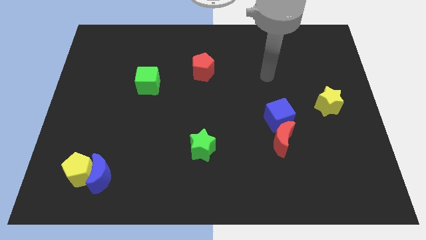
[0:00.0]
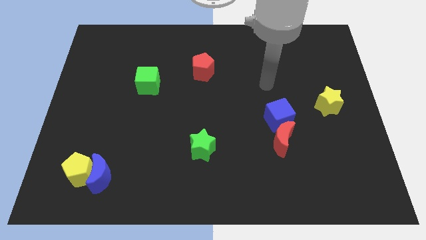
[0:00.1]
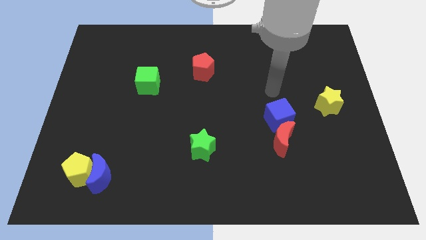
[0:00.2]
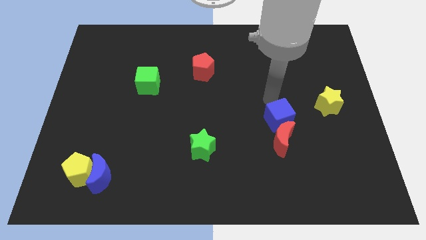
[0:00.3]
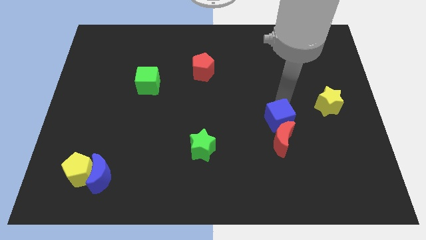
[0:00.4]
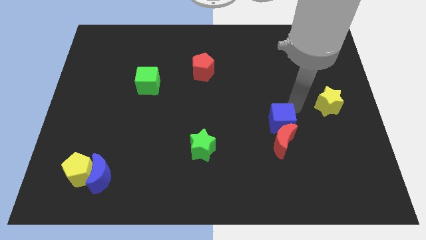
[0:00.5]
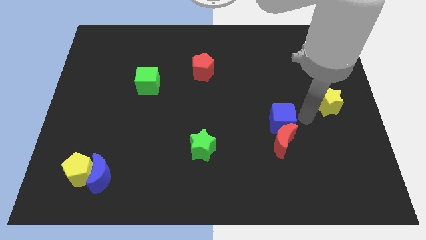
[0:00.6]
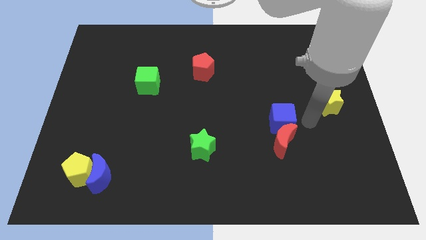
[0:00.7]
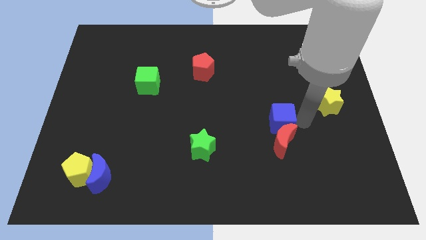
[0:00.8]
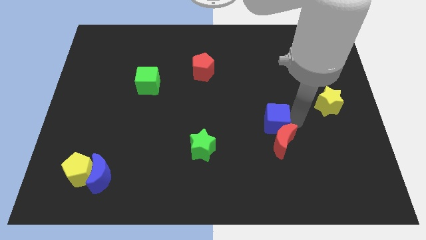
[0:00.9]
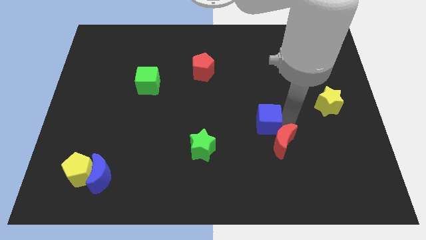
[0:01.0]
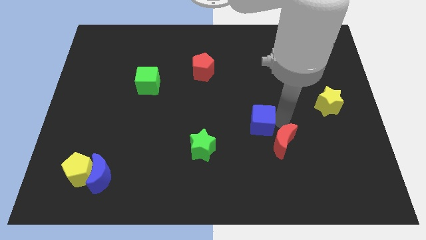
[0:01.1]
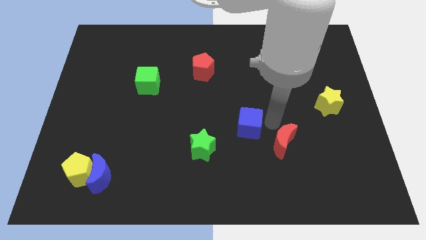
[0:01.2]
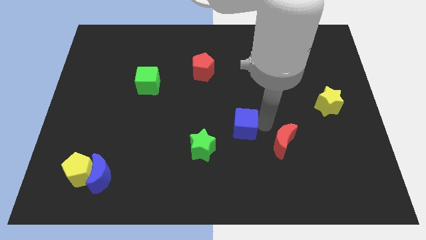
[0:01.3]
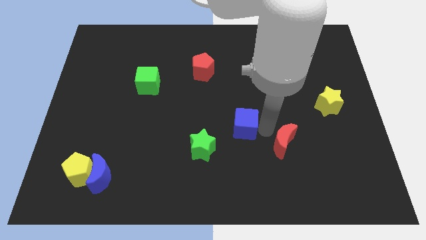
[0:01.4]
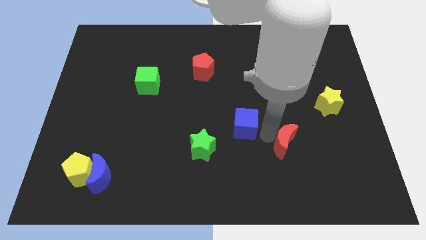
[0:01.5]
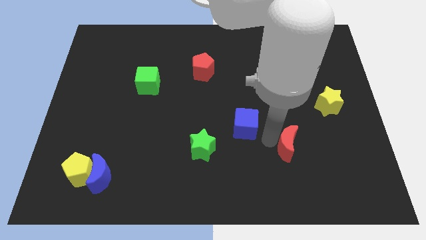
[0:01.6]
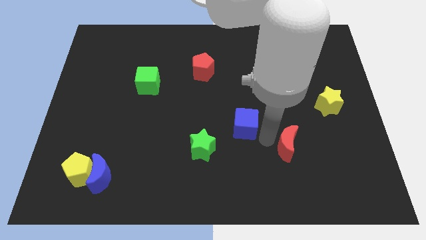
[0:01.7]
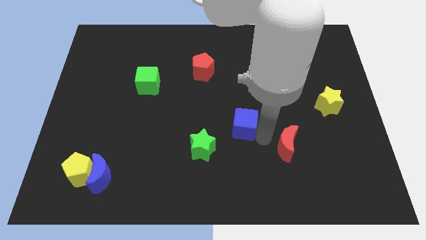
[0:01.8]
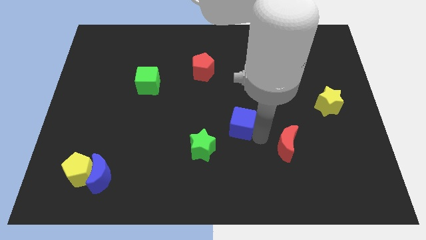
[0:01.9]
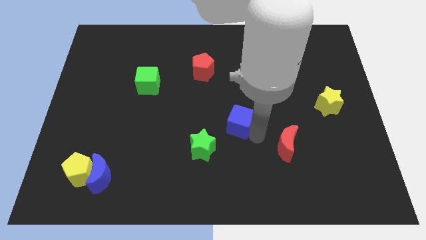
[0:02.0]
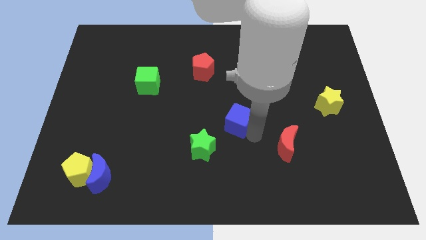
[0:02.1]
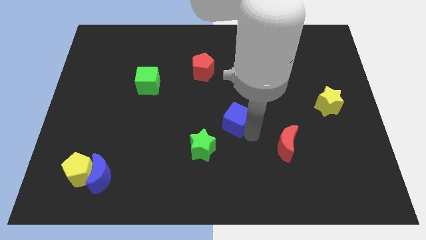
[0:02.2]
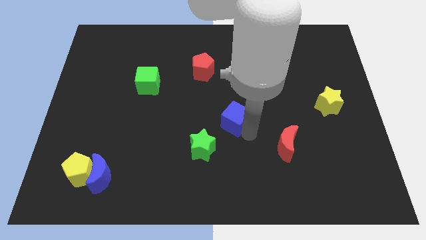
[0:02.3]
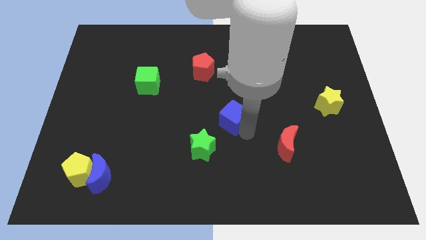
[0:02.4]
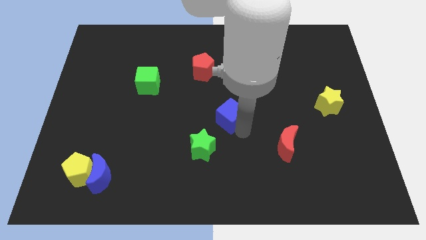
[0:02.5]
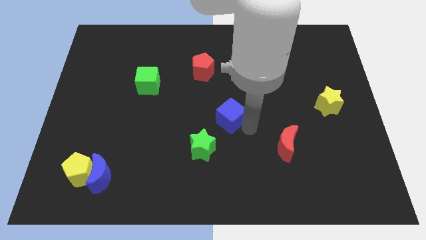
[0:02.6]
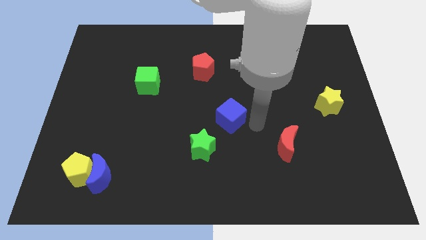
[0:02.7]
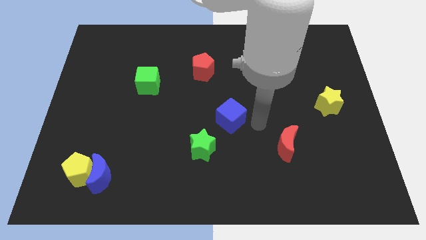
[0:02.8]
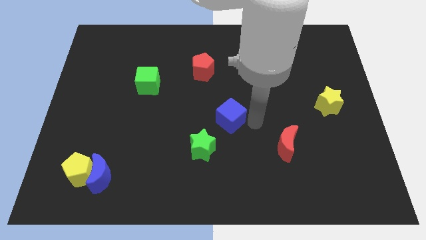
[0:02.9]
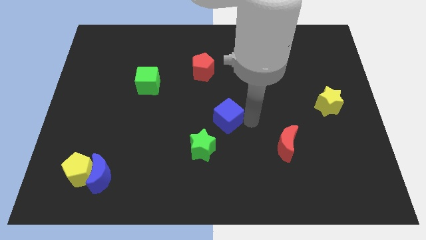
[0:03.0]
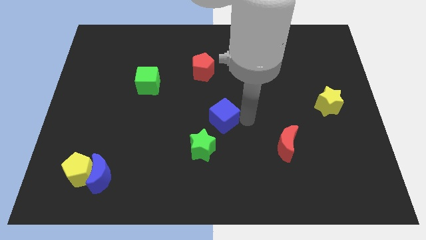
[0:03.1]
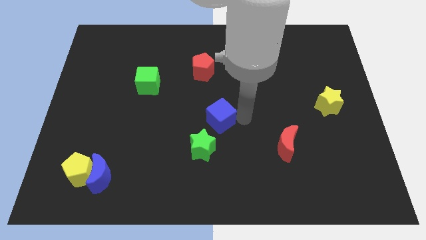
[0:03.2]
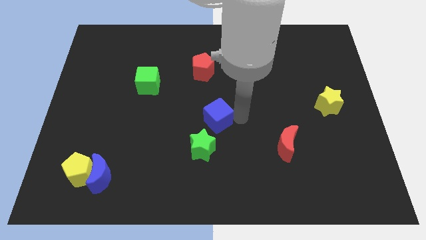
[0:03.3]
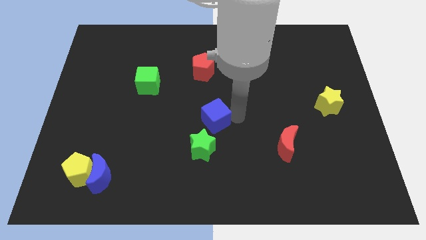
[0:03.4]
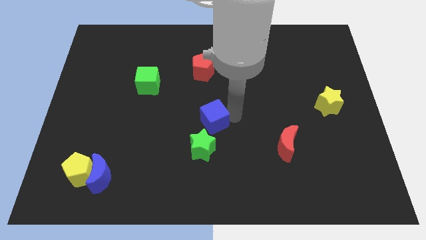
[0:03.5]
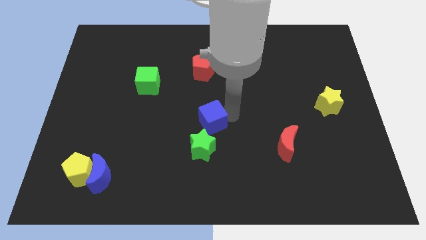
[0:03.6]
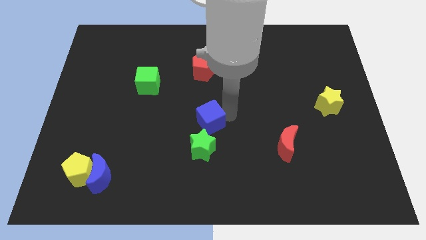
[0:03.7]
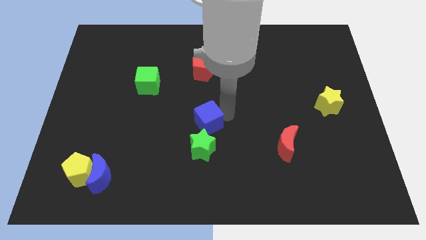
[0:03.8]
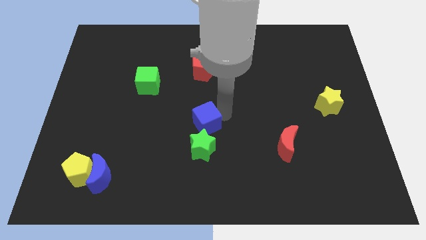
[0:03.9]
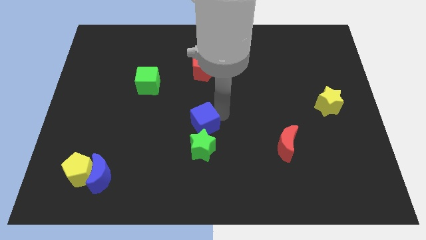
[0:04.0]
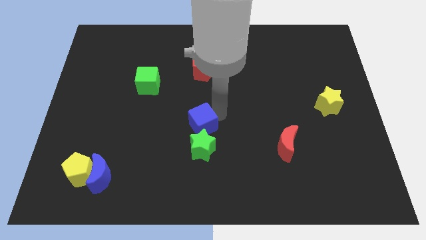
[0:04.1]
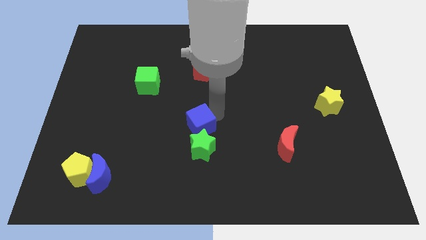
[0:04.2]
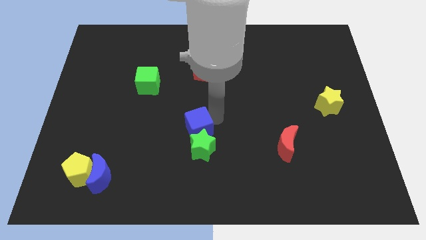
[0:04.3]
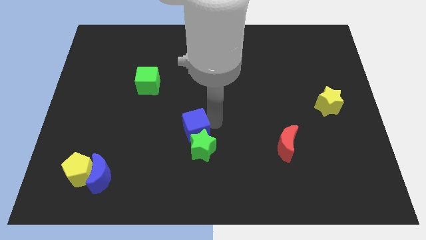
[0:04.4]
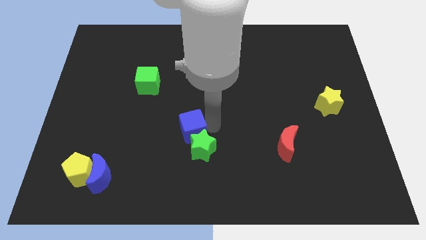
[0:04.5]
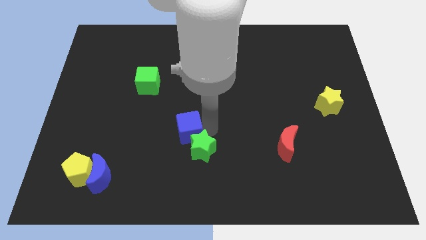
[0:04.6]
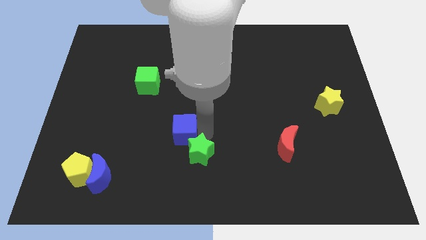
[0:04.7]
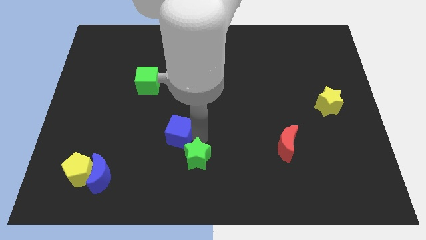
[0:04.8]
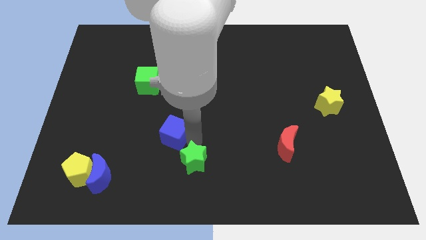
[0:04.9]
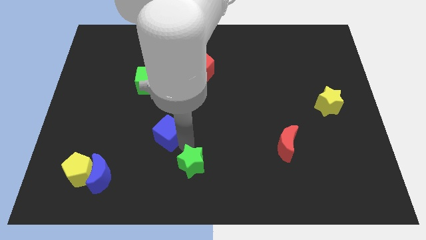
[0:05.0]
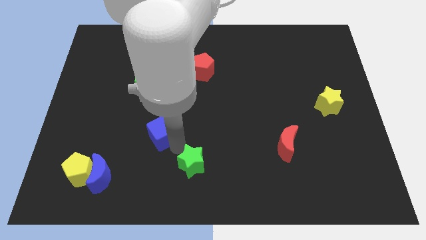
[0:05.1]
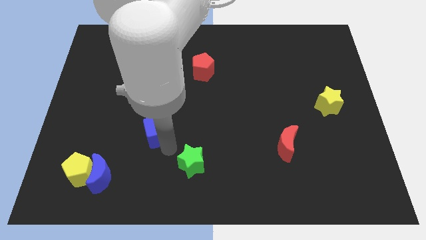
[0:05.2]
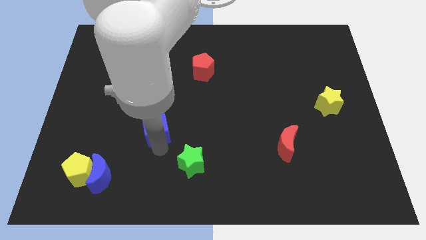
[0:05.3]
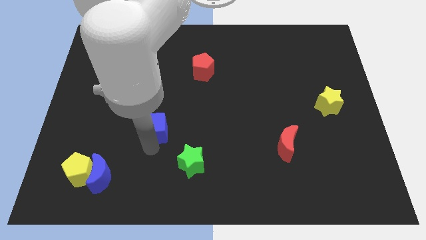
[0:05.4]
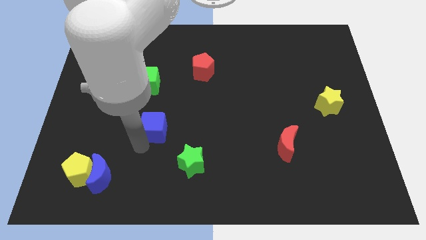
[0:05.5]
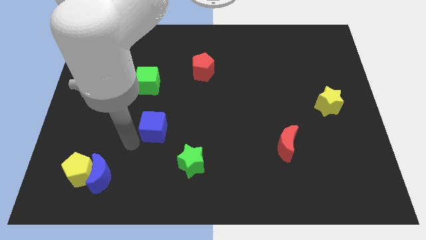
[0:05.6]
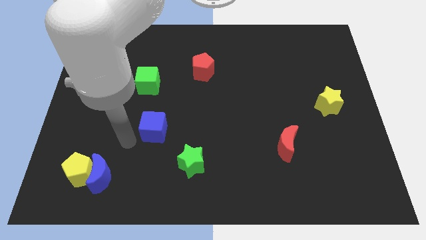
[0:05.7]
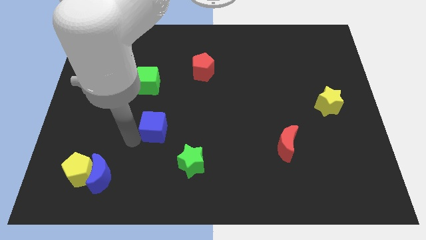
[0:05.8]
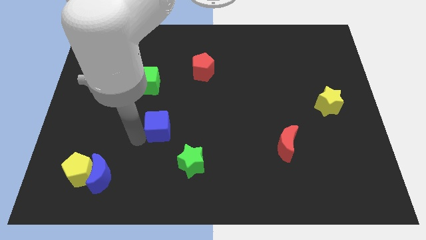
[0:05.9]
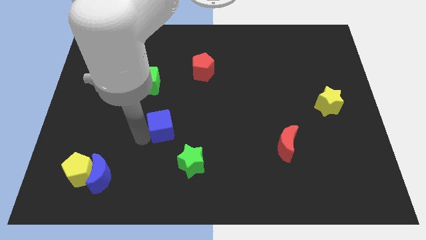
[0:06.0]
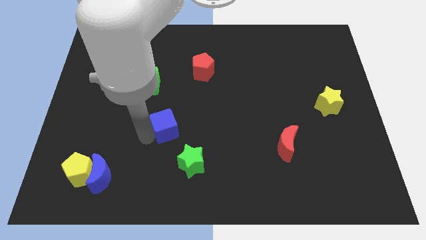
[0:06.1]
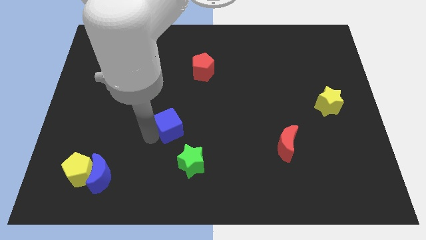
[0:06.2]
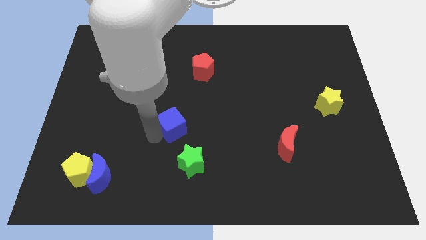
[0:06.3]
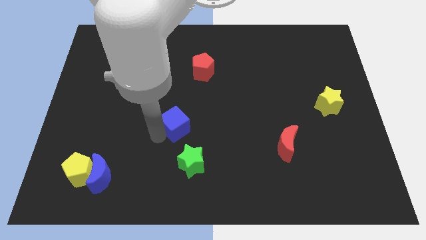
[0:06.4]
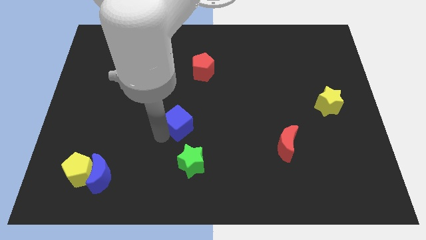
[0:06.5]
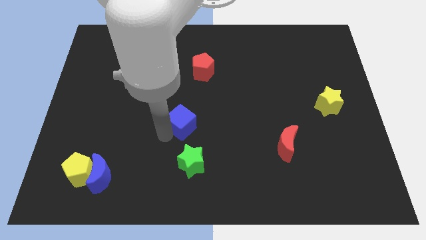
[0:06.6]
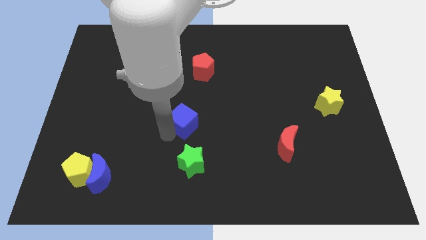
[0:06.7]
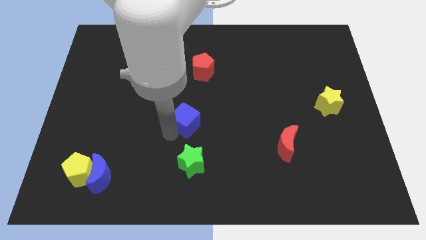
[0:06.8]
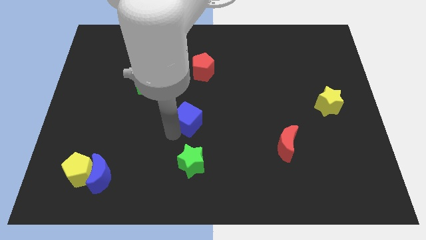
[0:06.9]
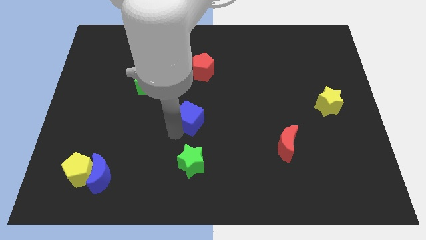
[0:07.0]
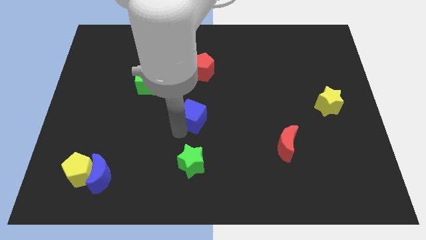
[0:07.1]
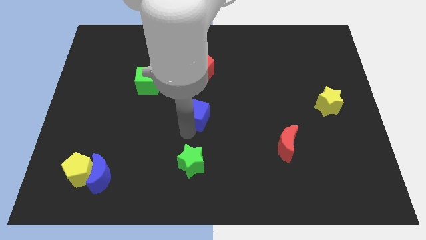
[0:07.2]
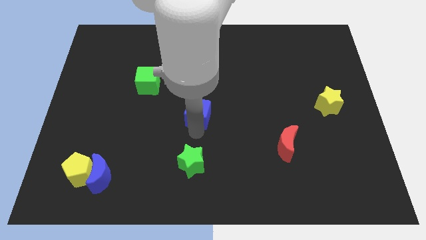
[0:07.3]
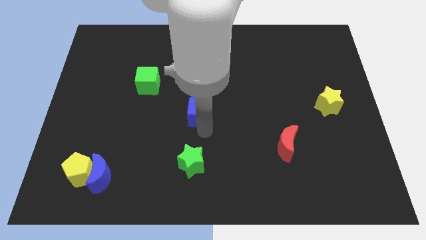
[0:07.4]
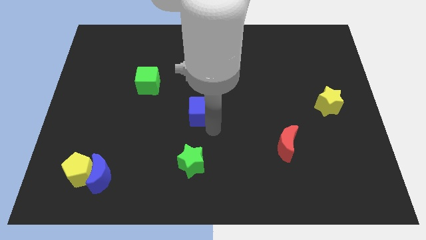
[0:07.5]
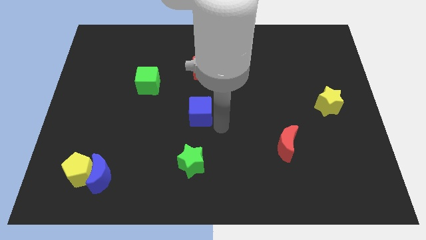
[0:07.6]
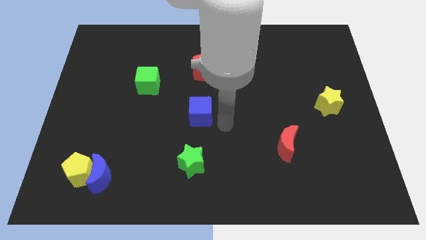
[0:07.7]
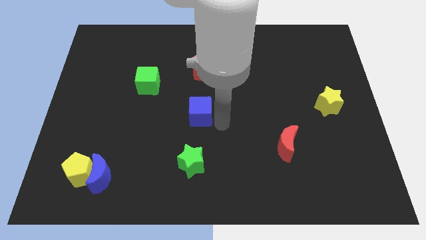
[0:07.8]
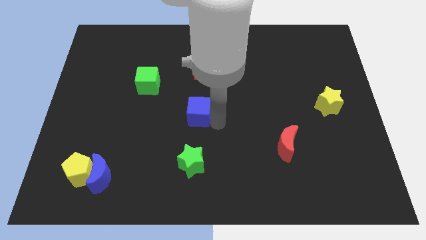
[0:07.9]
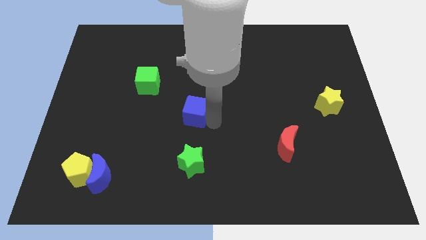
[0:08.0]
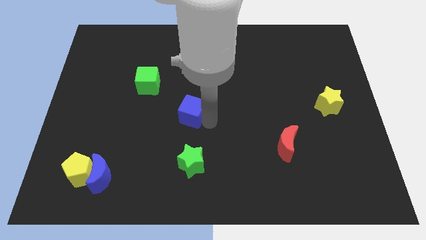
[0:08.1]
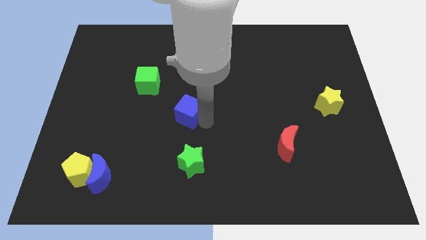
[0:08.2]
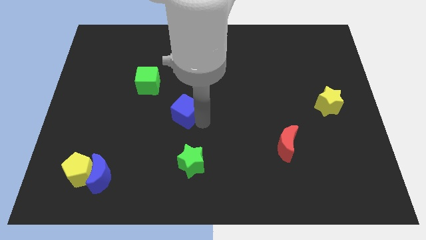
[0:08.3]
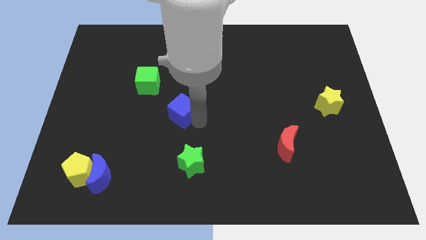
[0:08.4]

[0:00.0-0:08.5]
push the blue cube to the bottom right side of the green cube
